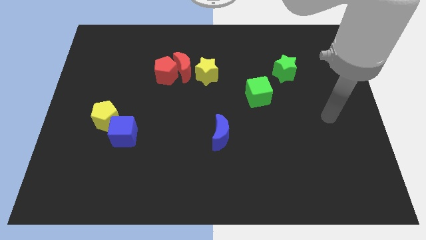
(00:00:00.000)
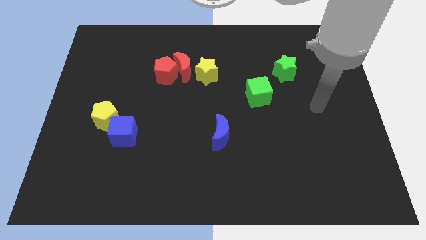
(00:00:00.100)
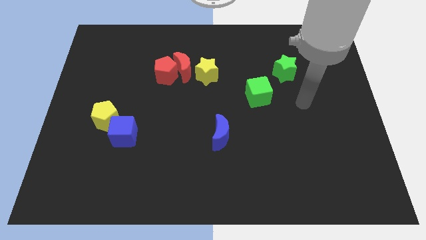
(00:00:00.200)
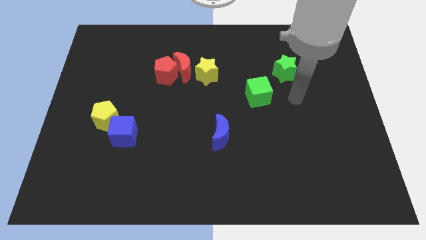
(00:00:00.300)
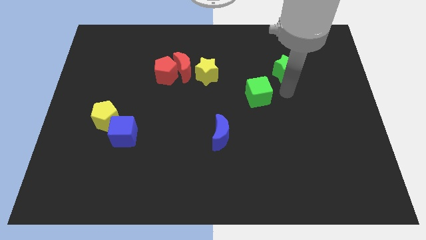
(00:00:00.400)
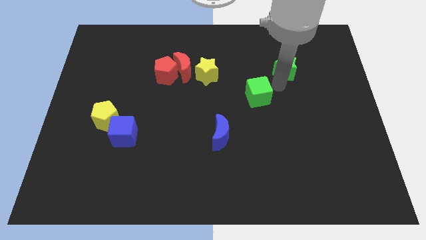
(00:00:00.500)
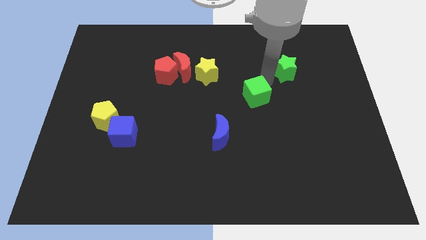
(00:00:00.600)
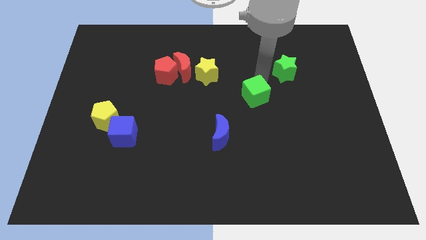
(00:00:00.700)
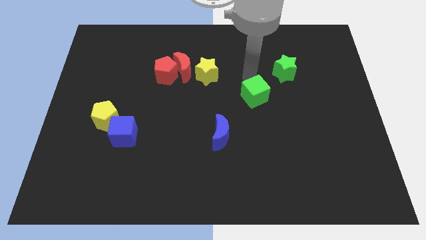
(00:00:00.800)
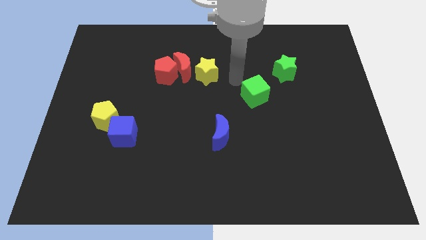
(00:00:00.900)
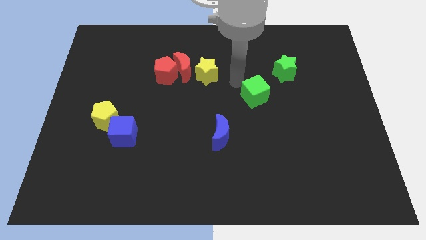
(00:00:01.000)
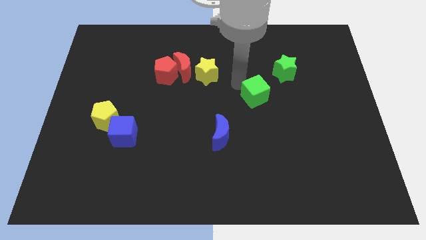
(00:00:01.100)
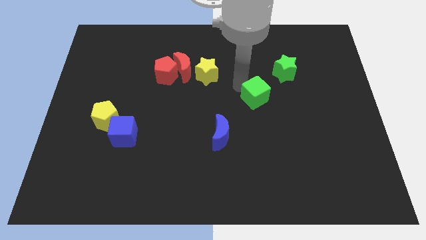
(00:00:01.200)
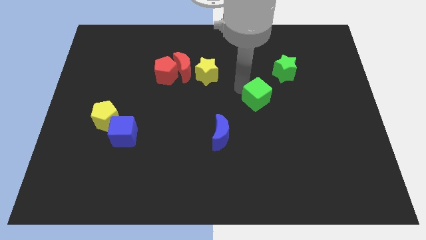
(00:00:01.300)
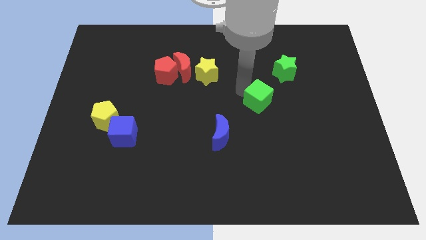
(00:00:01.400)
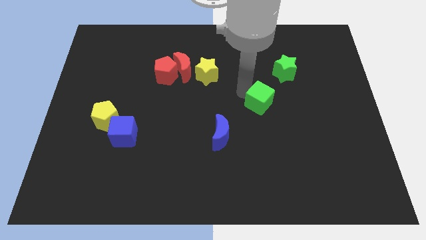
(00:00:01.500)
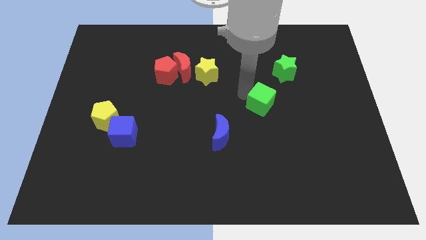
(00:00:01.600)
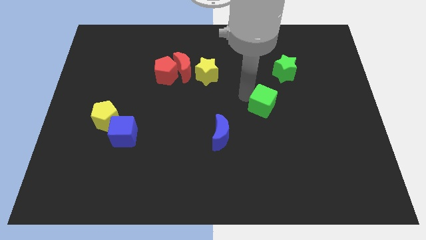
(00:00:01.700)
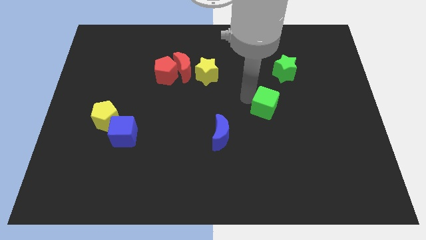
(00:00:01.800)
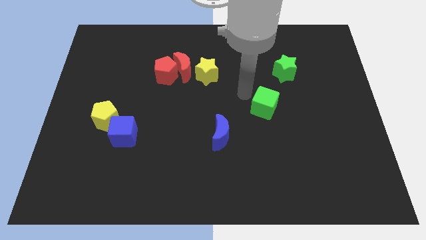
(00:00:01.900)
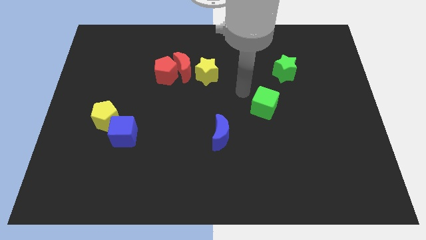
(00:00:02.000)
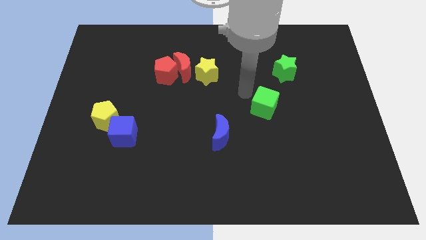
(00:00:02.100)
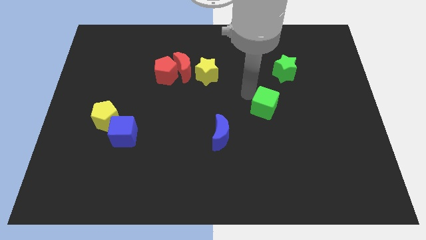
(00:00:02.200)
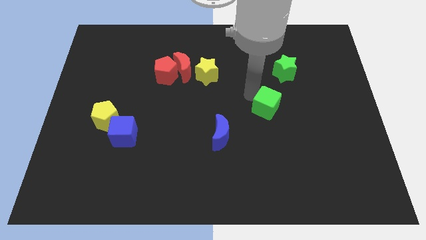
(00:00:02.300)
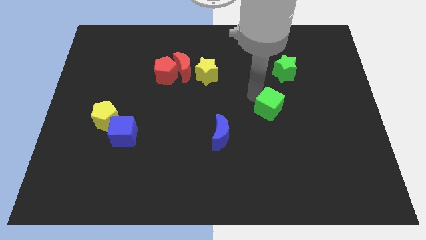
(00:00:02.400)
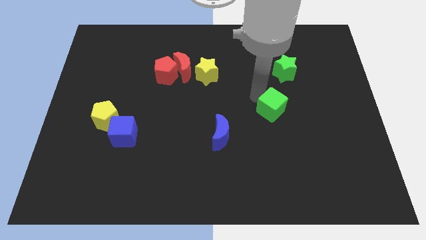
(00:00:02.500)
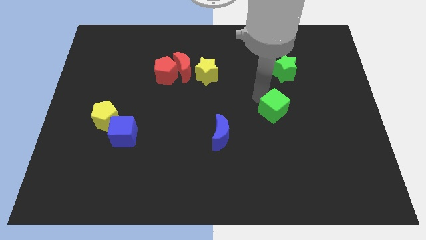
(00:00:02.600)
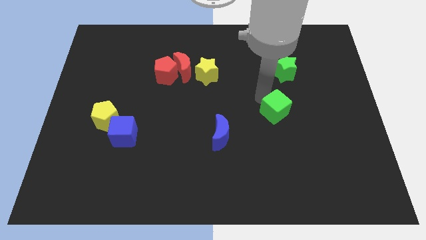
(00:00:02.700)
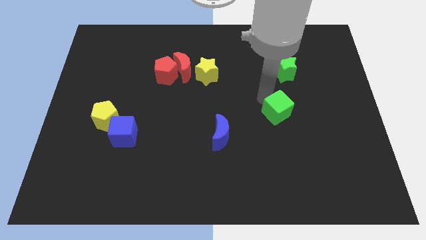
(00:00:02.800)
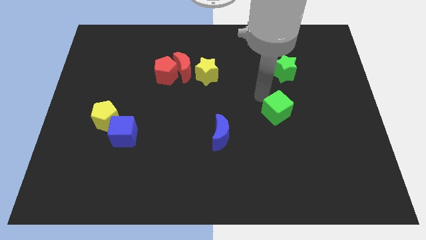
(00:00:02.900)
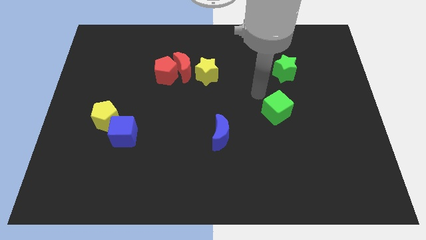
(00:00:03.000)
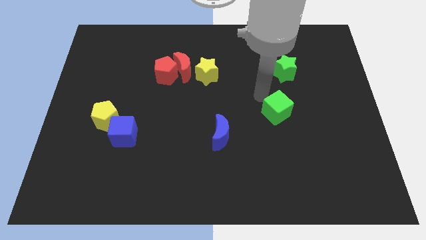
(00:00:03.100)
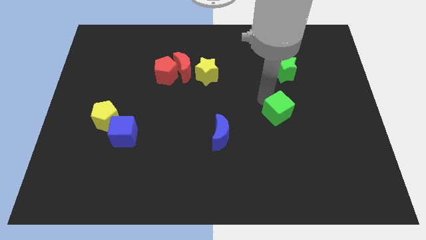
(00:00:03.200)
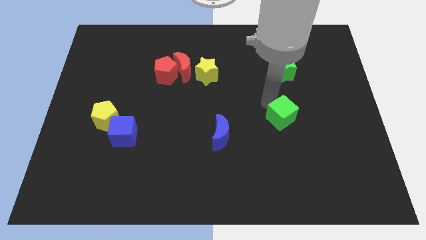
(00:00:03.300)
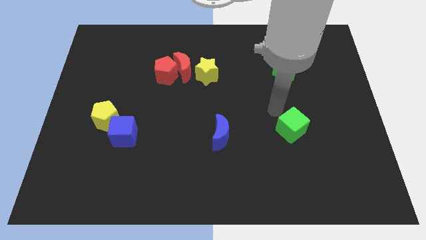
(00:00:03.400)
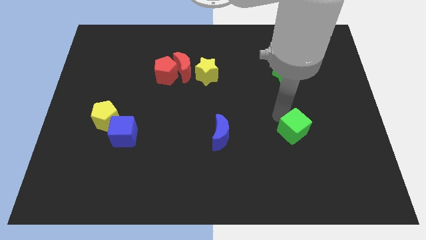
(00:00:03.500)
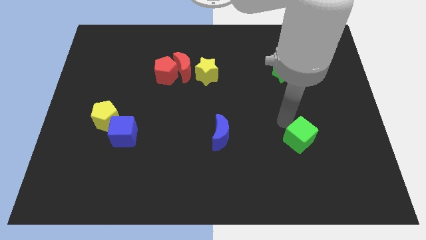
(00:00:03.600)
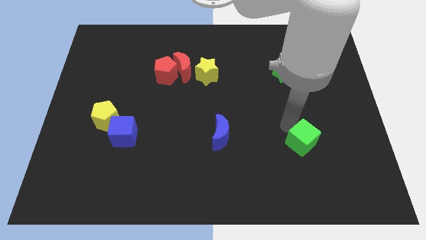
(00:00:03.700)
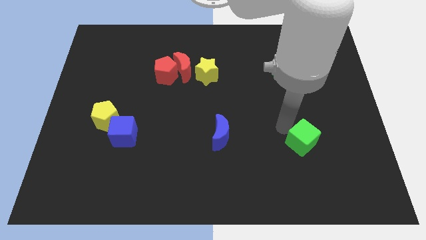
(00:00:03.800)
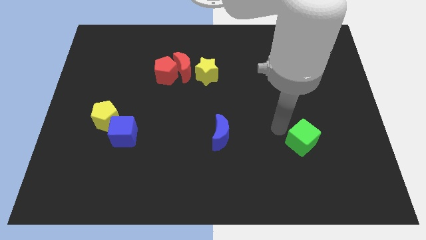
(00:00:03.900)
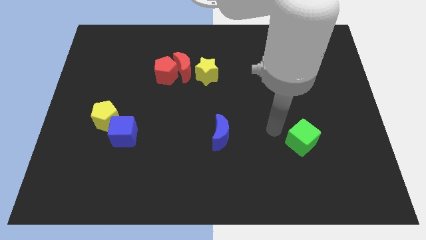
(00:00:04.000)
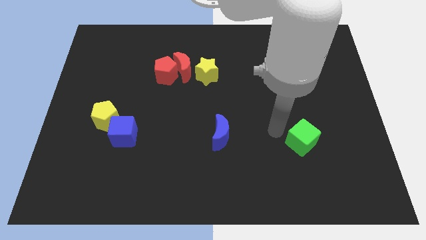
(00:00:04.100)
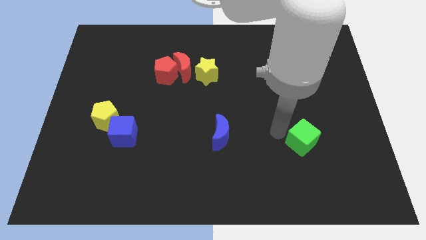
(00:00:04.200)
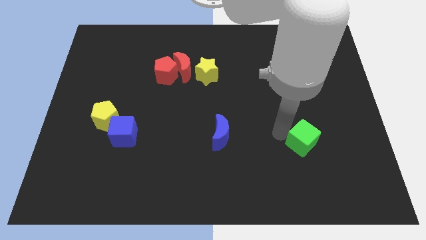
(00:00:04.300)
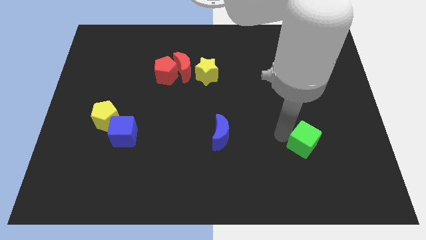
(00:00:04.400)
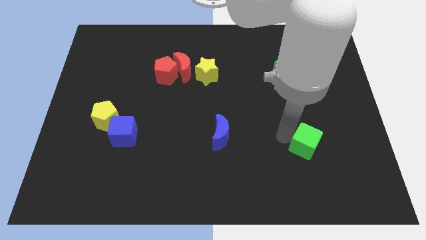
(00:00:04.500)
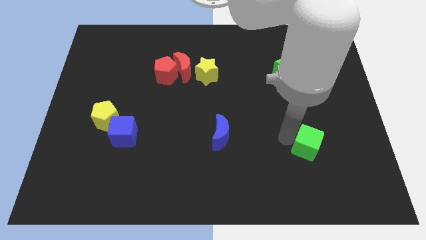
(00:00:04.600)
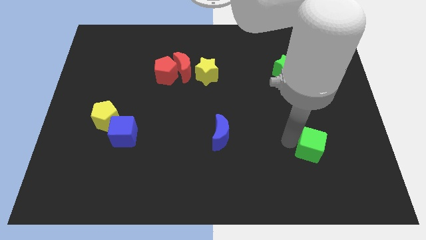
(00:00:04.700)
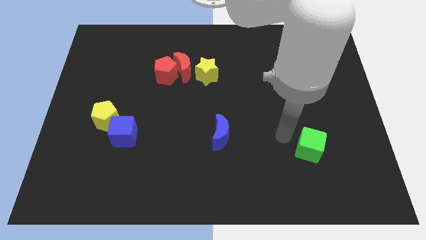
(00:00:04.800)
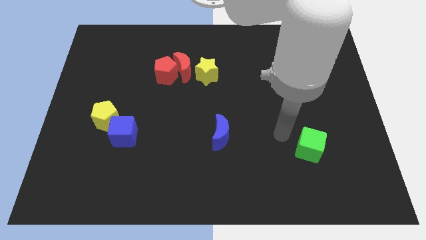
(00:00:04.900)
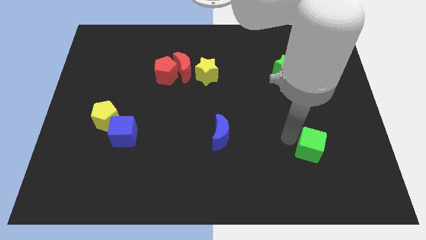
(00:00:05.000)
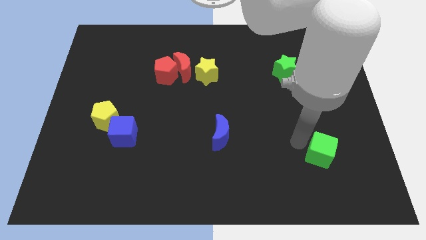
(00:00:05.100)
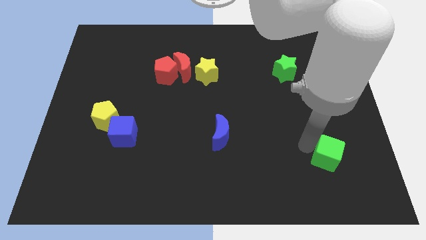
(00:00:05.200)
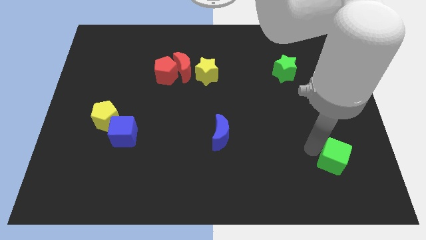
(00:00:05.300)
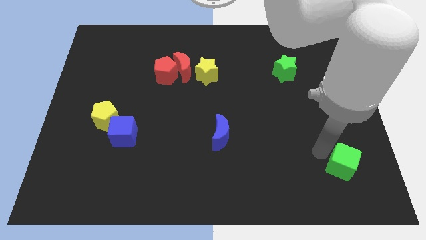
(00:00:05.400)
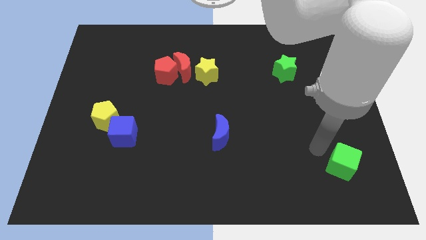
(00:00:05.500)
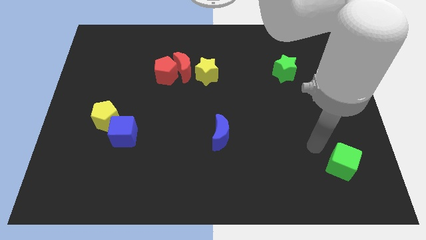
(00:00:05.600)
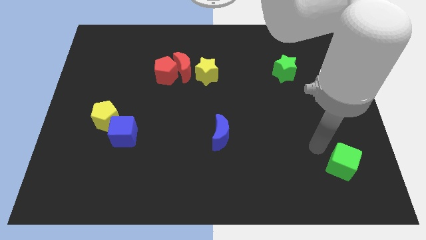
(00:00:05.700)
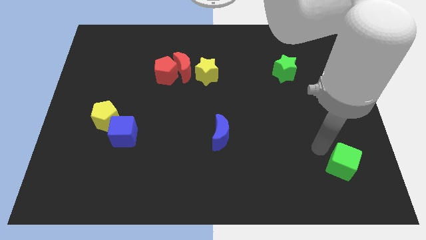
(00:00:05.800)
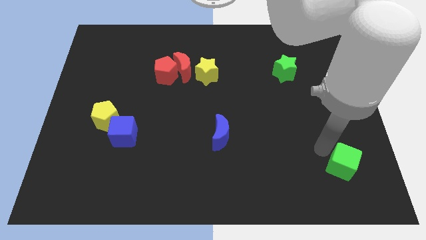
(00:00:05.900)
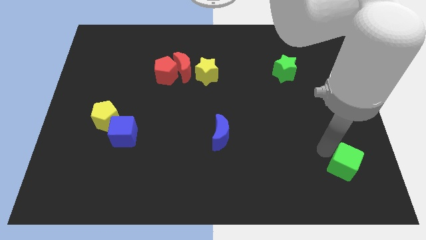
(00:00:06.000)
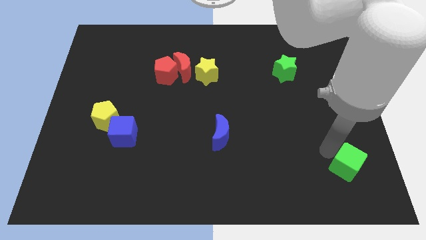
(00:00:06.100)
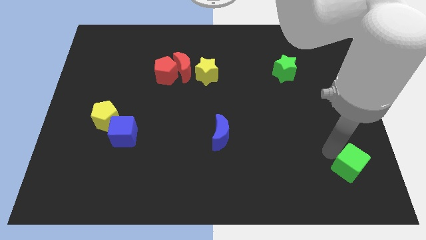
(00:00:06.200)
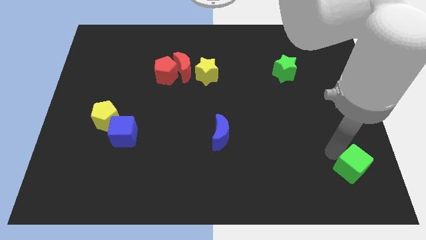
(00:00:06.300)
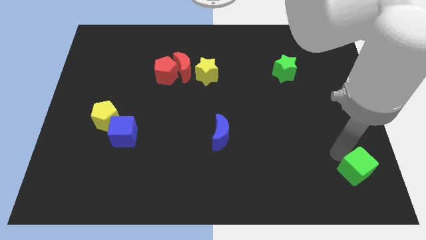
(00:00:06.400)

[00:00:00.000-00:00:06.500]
put the green cube to the bottom right
